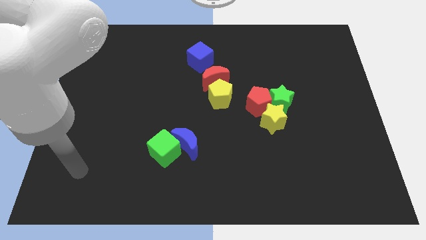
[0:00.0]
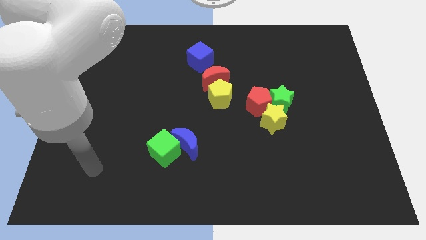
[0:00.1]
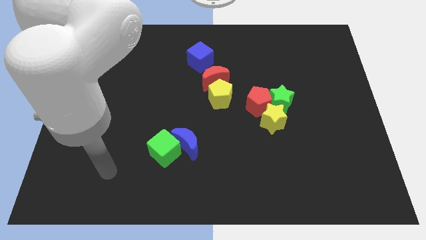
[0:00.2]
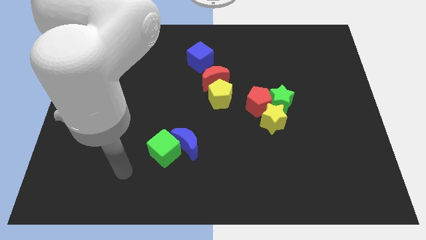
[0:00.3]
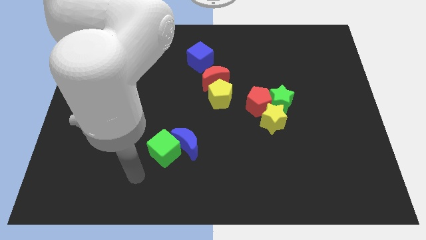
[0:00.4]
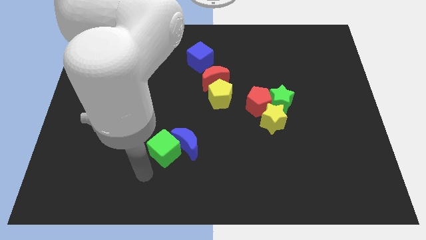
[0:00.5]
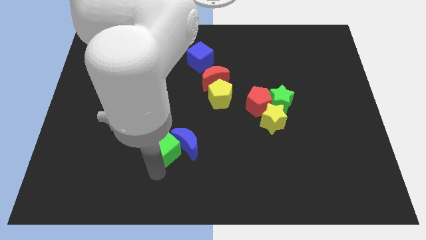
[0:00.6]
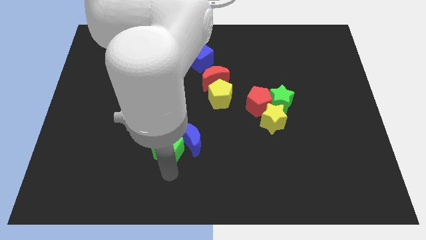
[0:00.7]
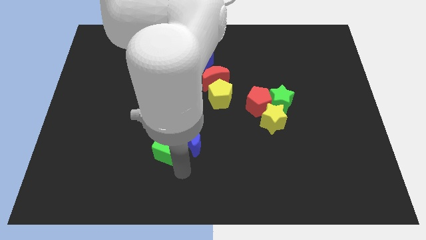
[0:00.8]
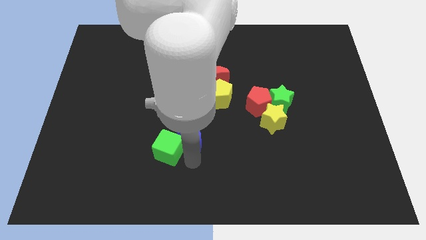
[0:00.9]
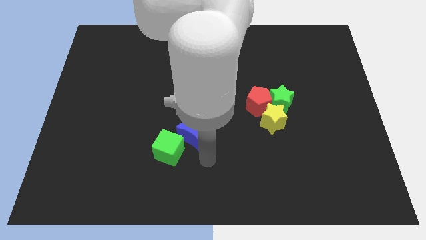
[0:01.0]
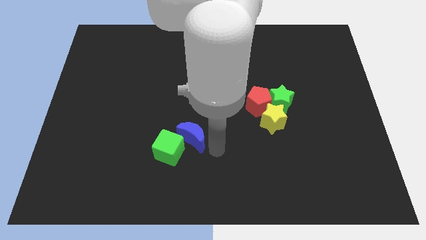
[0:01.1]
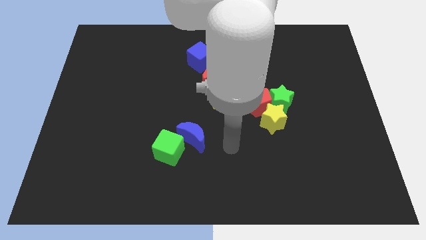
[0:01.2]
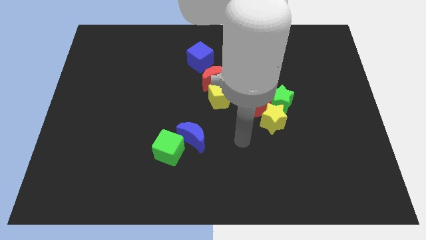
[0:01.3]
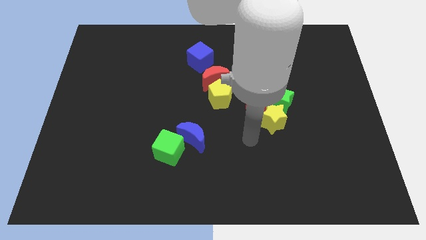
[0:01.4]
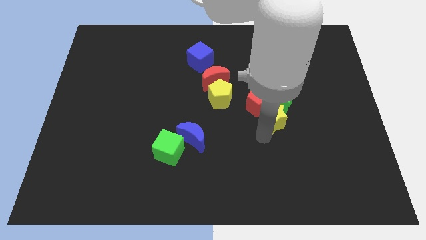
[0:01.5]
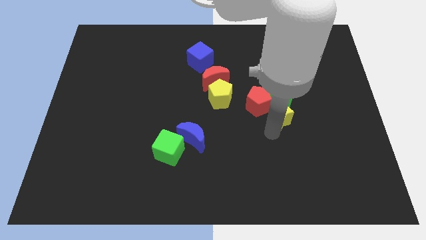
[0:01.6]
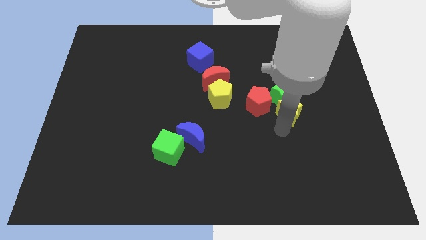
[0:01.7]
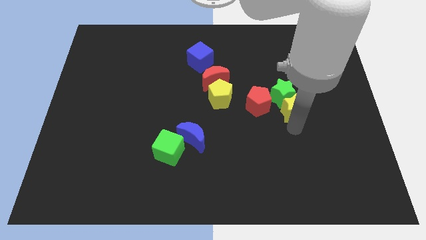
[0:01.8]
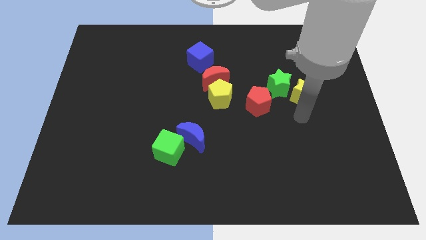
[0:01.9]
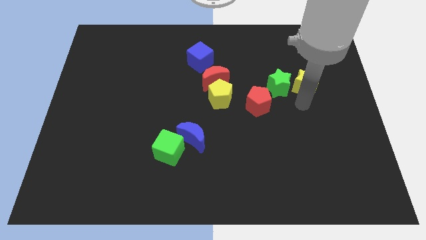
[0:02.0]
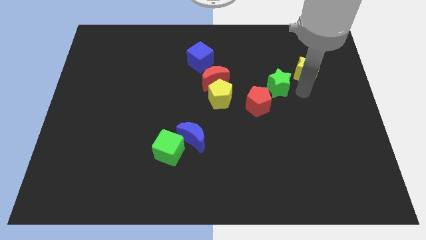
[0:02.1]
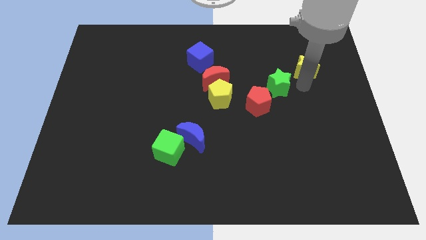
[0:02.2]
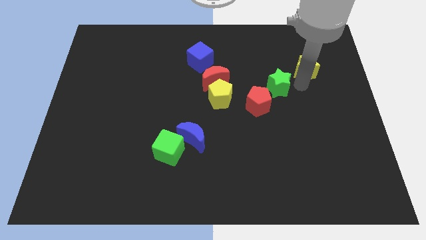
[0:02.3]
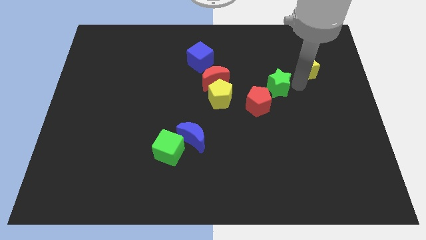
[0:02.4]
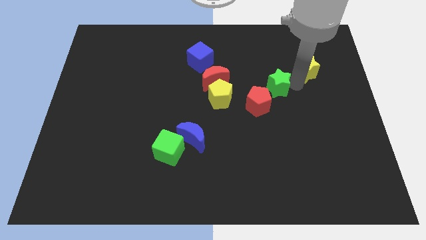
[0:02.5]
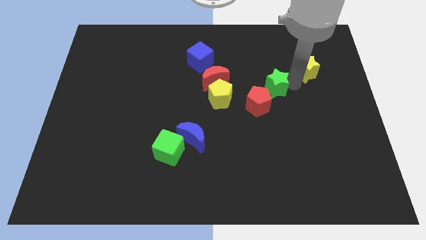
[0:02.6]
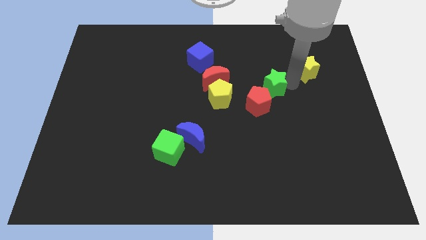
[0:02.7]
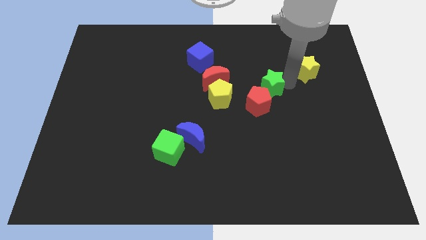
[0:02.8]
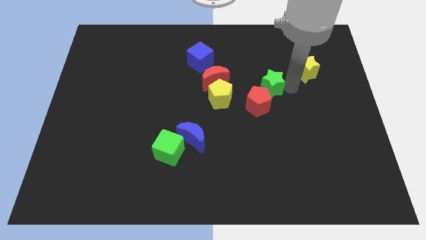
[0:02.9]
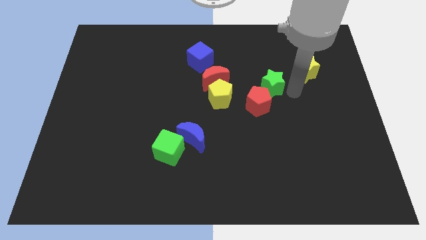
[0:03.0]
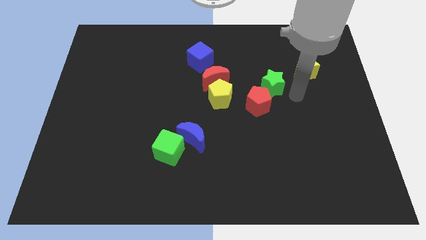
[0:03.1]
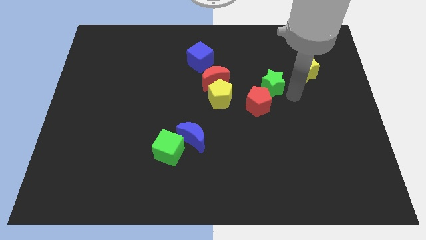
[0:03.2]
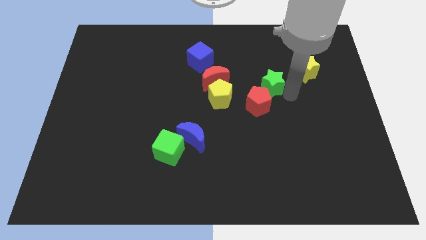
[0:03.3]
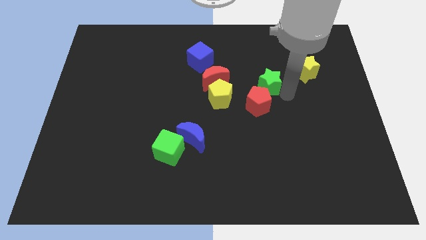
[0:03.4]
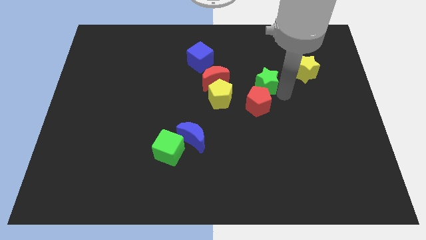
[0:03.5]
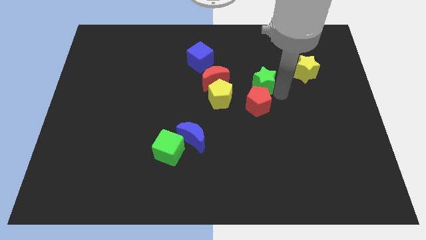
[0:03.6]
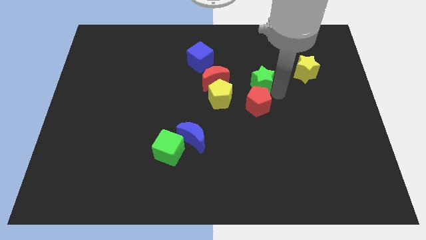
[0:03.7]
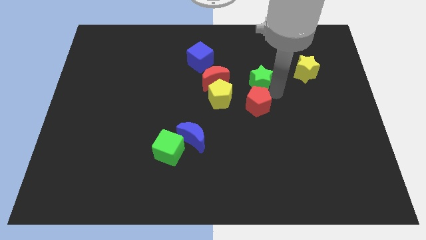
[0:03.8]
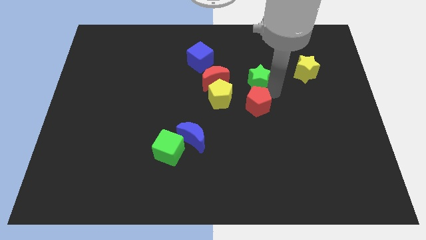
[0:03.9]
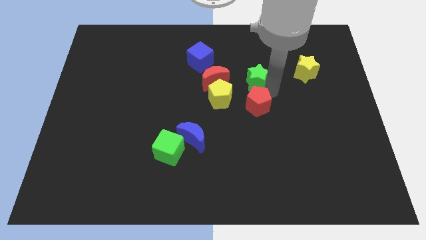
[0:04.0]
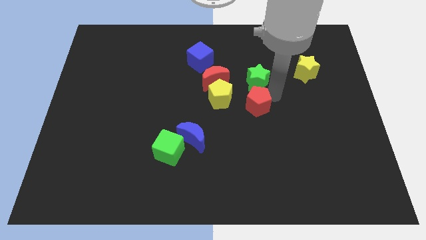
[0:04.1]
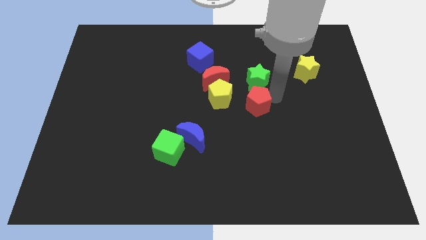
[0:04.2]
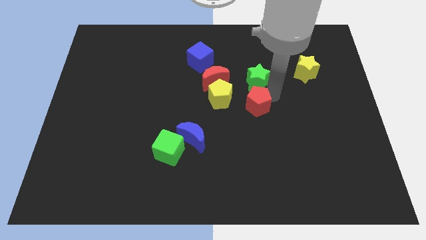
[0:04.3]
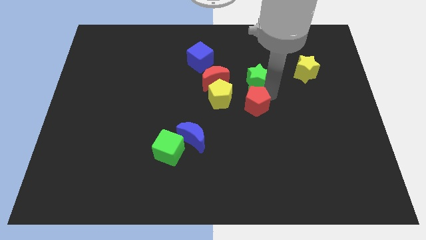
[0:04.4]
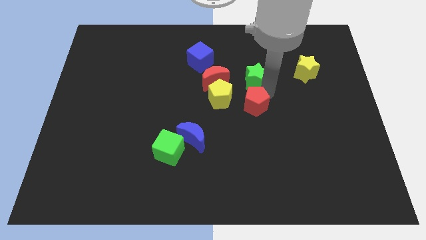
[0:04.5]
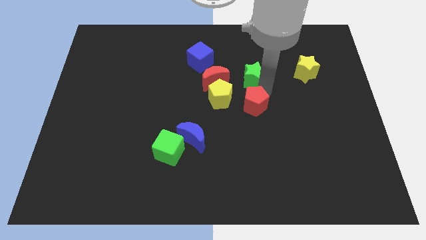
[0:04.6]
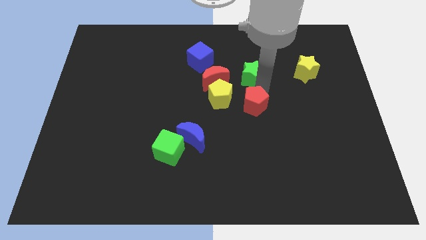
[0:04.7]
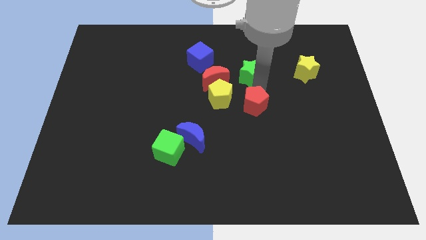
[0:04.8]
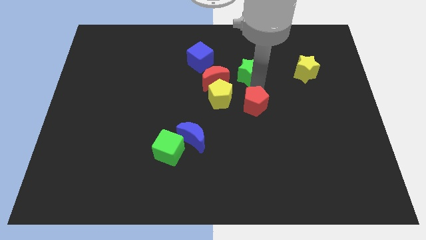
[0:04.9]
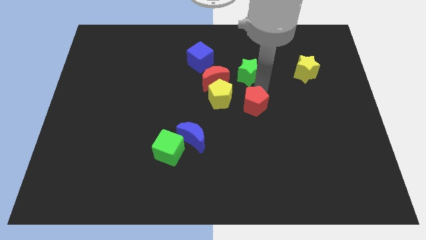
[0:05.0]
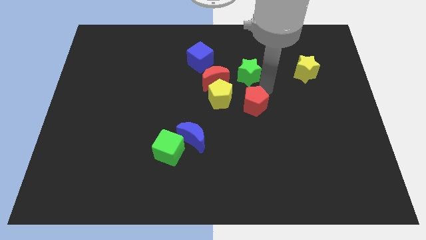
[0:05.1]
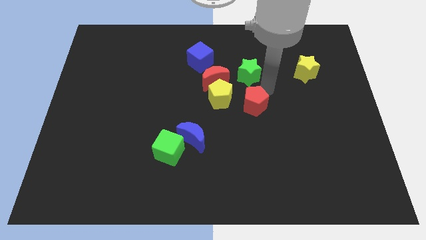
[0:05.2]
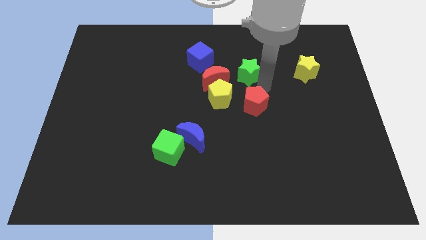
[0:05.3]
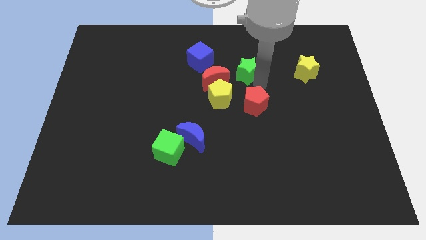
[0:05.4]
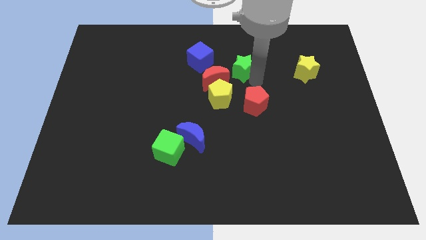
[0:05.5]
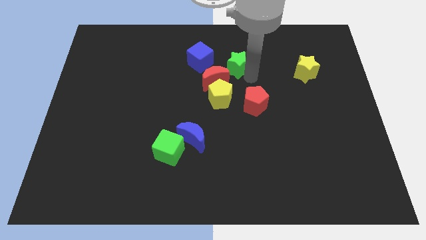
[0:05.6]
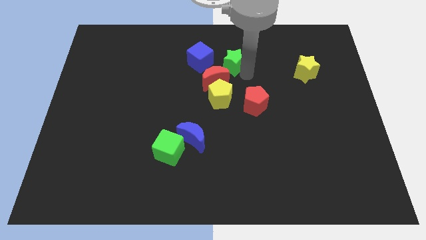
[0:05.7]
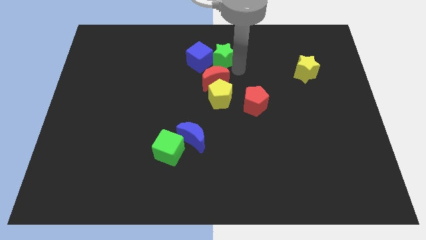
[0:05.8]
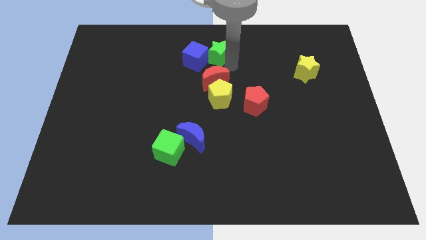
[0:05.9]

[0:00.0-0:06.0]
slide the green star to the towards your base
